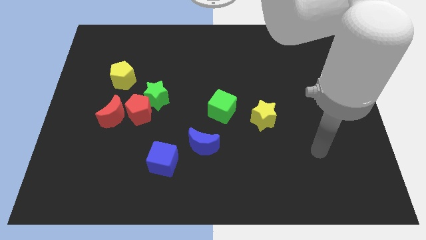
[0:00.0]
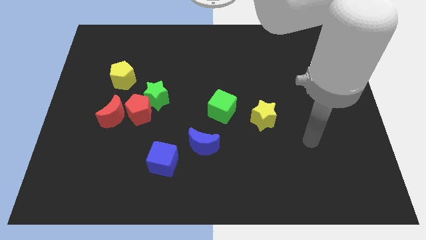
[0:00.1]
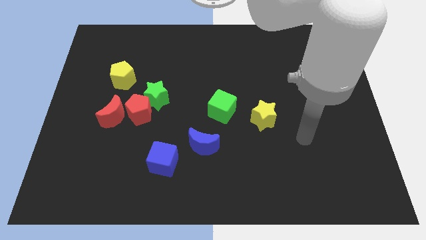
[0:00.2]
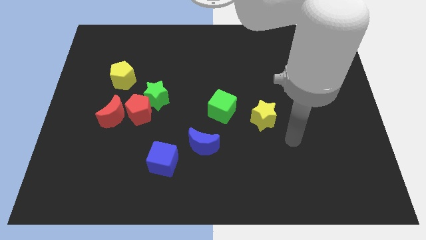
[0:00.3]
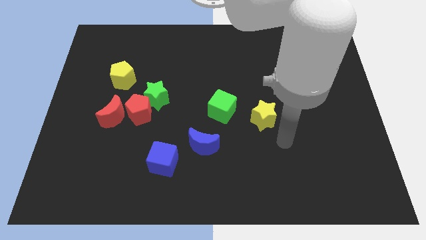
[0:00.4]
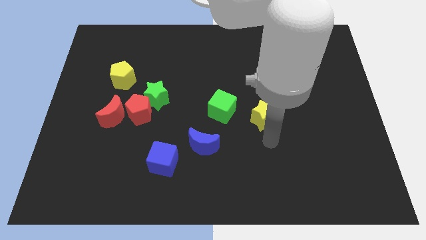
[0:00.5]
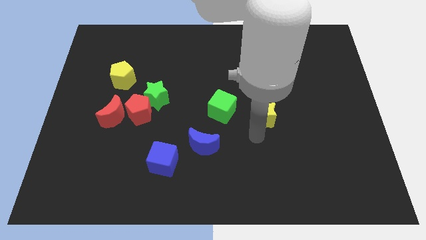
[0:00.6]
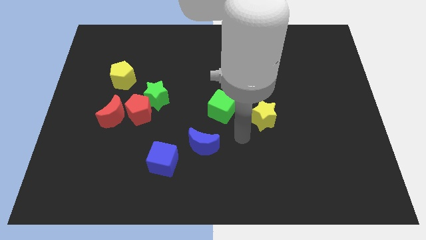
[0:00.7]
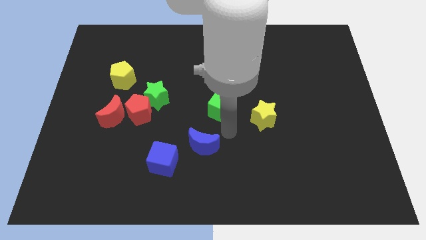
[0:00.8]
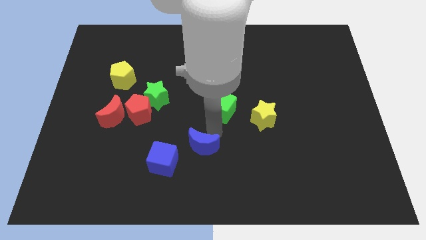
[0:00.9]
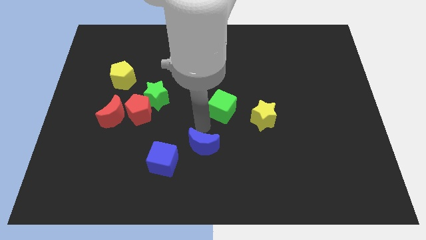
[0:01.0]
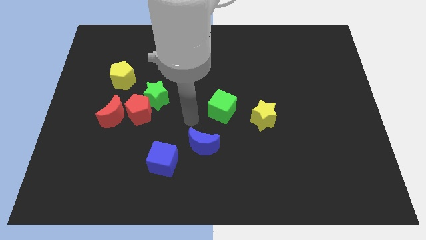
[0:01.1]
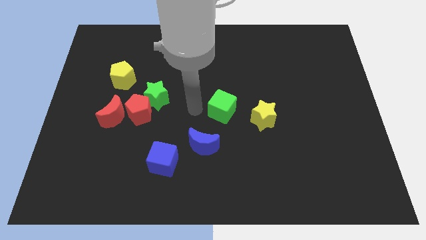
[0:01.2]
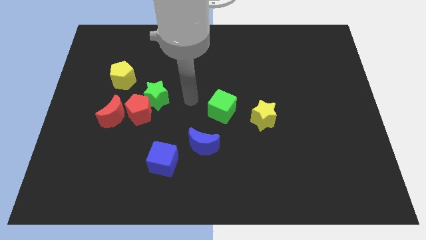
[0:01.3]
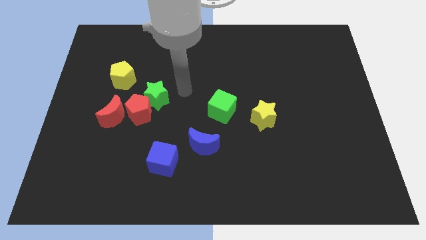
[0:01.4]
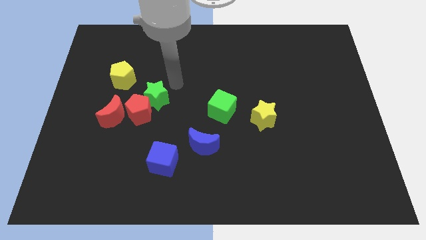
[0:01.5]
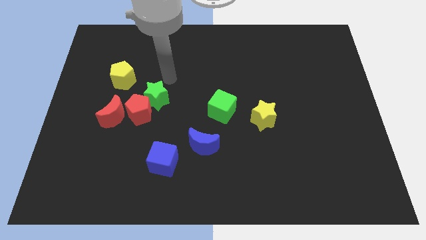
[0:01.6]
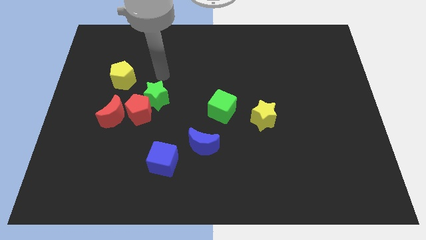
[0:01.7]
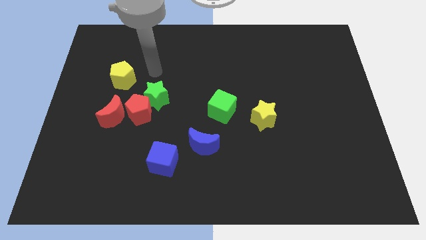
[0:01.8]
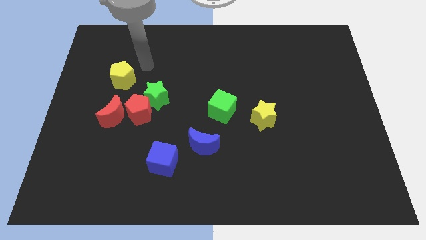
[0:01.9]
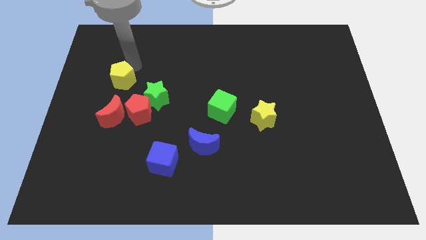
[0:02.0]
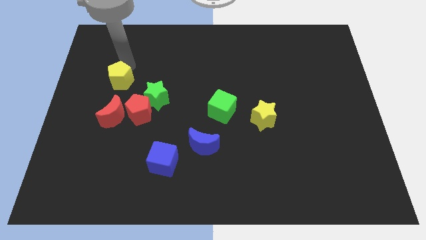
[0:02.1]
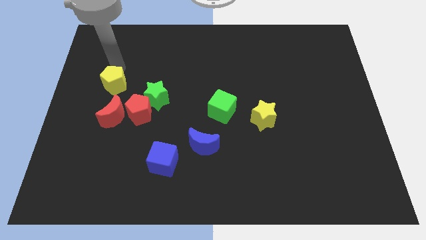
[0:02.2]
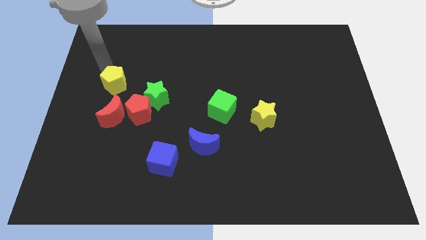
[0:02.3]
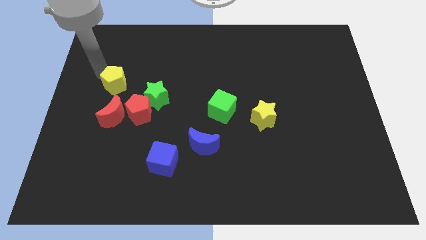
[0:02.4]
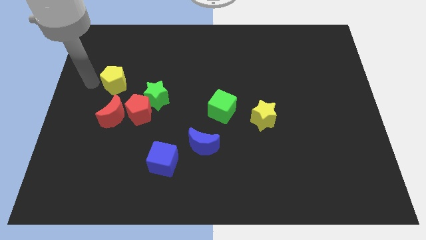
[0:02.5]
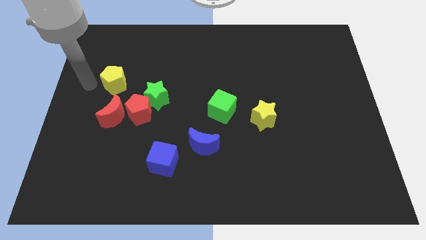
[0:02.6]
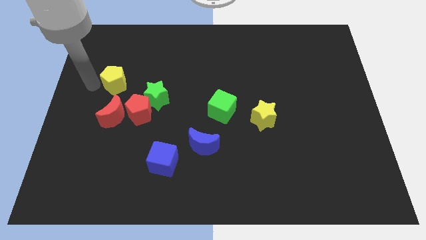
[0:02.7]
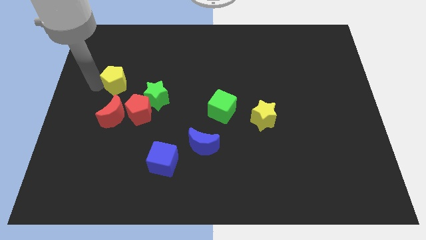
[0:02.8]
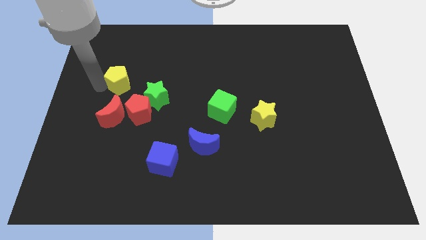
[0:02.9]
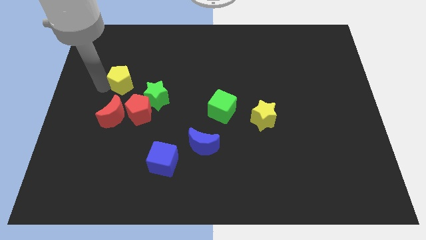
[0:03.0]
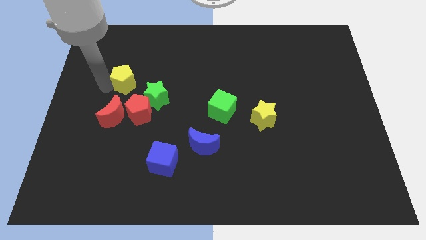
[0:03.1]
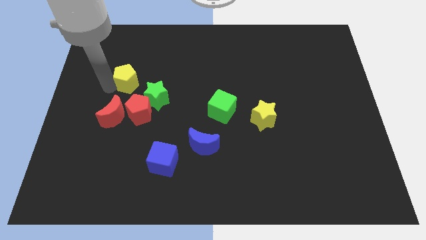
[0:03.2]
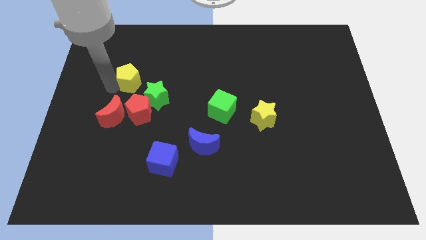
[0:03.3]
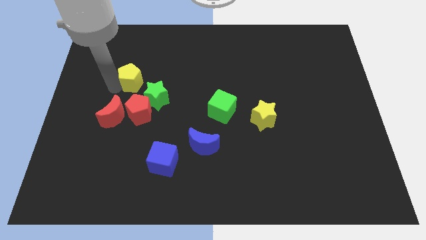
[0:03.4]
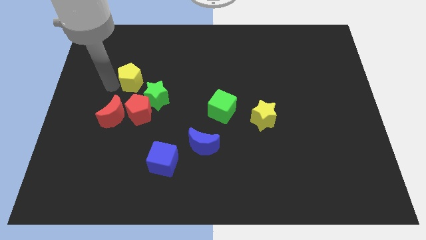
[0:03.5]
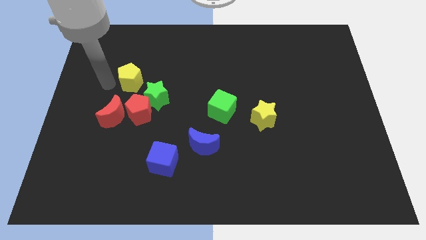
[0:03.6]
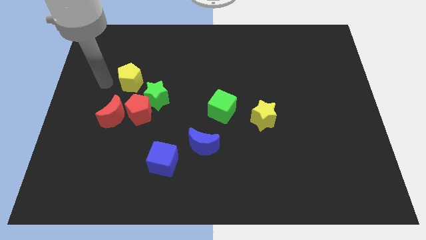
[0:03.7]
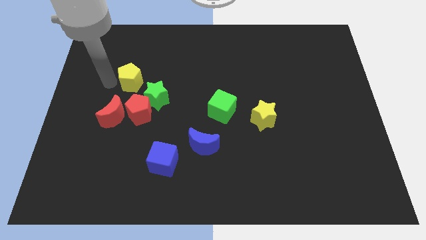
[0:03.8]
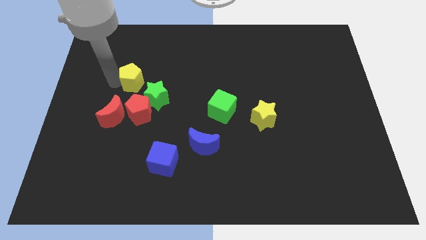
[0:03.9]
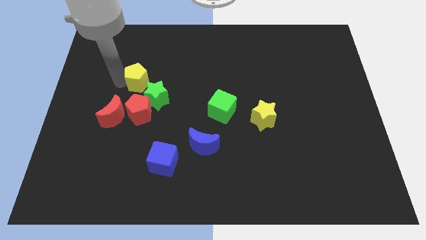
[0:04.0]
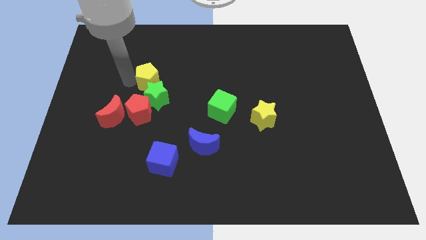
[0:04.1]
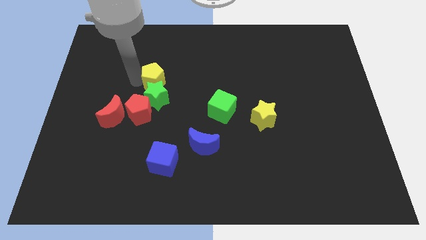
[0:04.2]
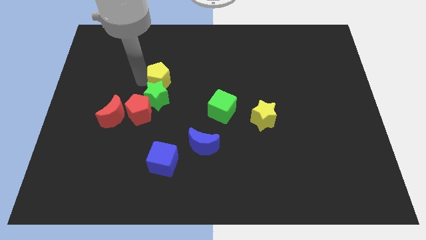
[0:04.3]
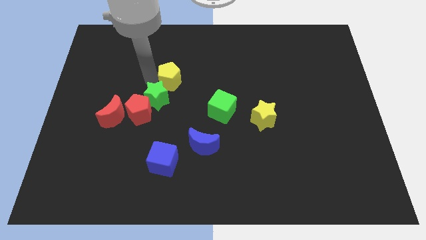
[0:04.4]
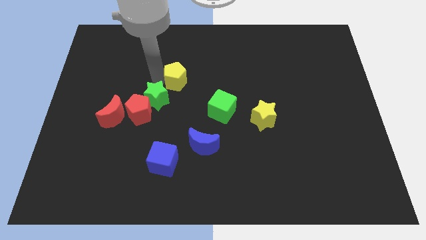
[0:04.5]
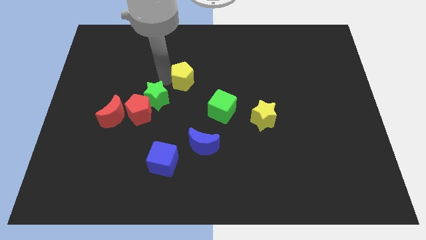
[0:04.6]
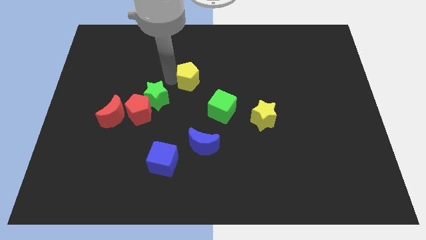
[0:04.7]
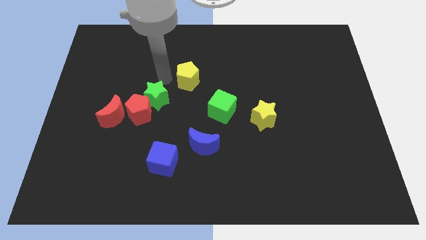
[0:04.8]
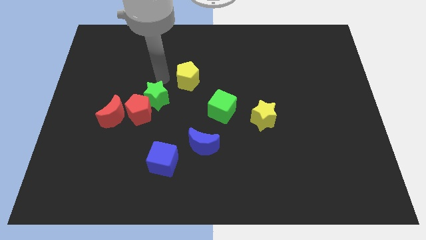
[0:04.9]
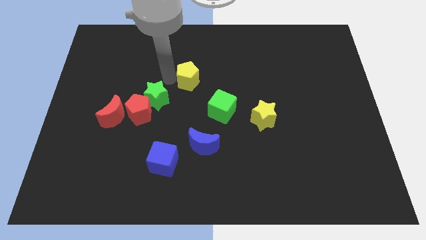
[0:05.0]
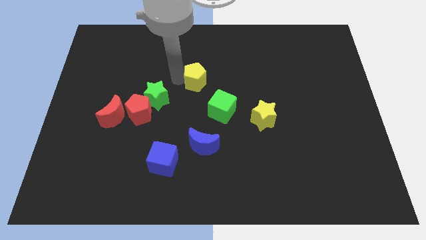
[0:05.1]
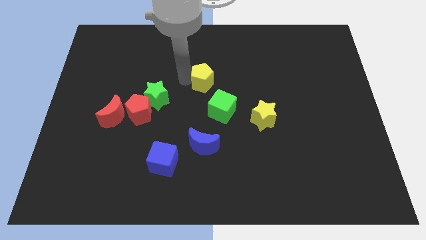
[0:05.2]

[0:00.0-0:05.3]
push the yellow pentagon right

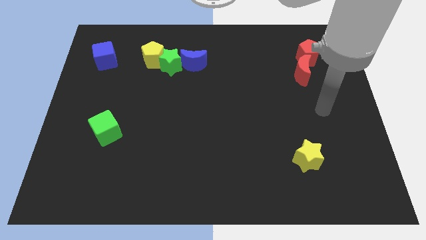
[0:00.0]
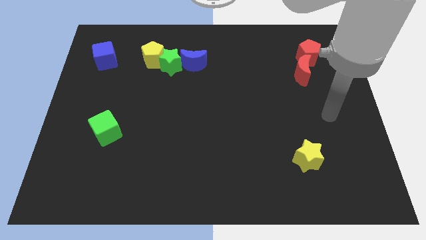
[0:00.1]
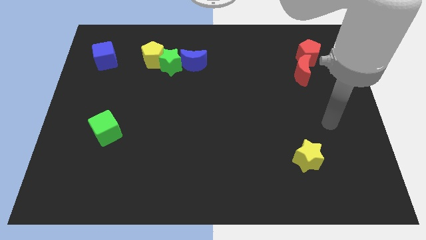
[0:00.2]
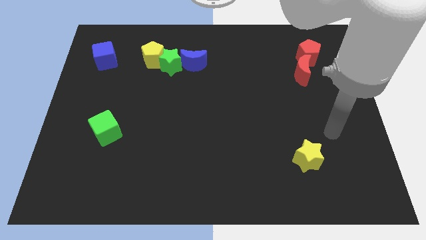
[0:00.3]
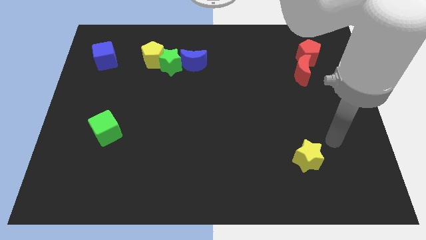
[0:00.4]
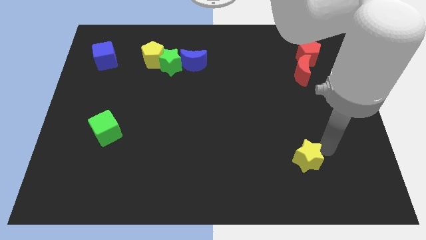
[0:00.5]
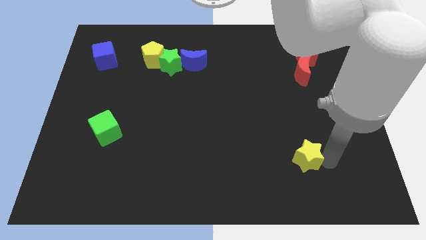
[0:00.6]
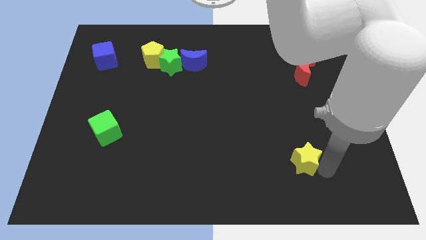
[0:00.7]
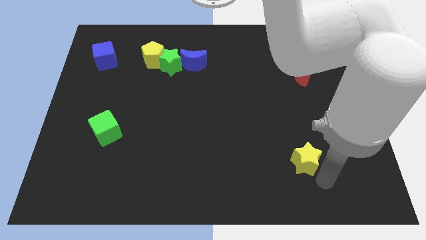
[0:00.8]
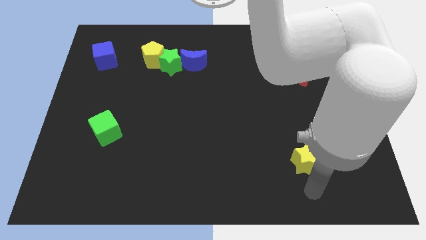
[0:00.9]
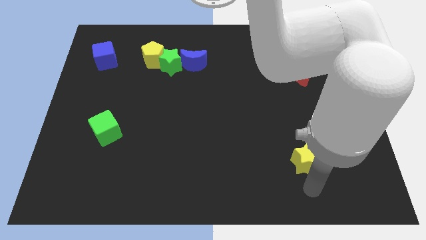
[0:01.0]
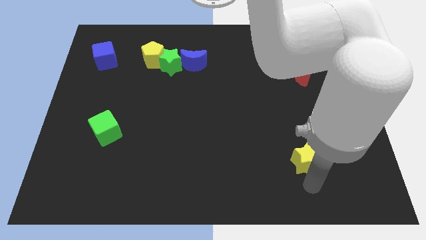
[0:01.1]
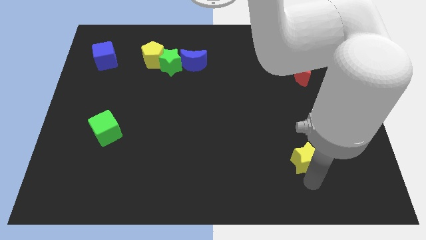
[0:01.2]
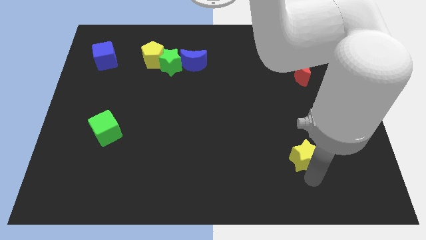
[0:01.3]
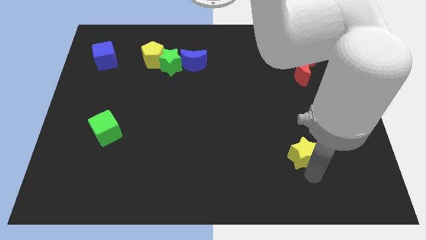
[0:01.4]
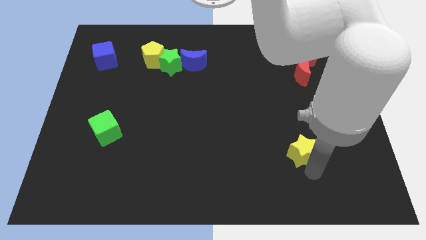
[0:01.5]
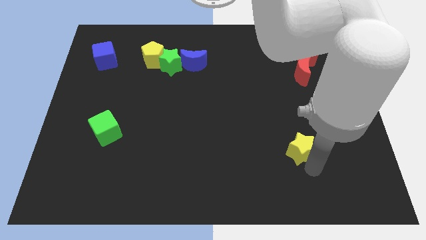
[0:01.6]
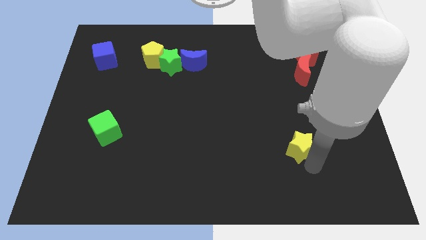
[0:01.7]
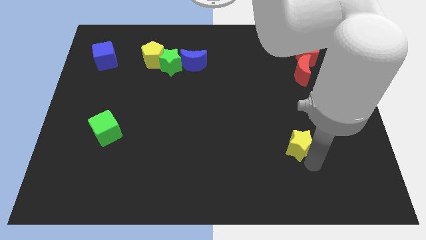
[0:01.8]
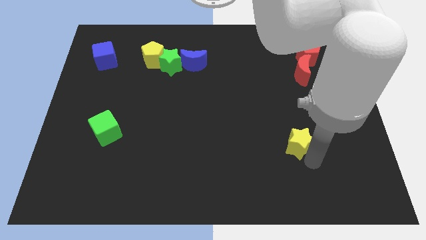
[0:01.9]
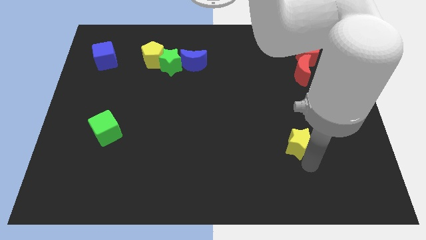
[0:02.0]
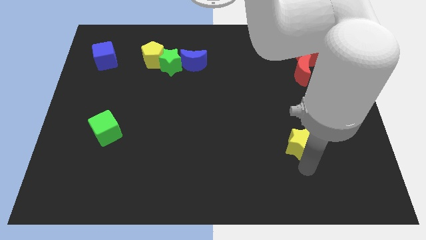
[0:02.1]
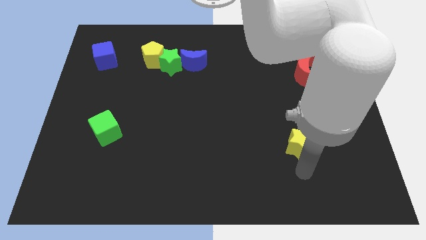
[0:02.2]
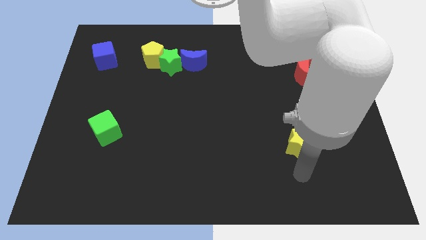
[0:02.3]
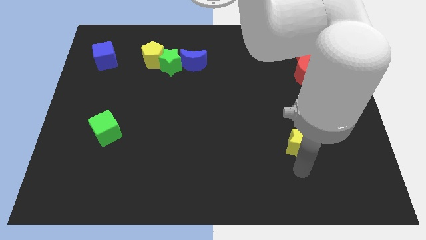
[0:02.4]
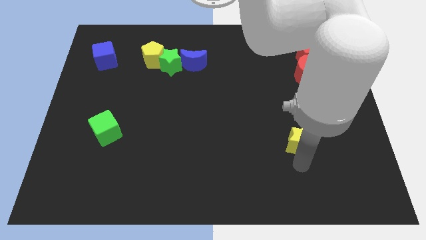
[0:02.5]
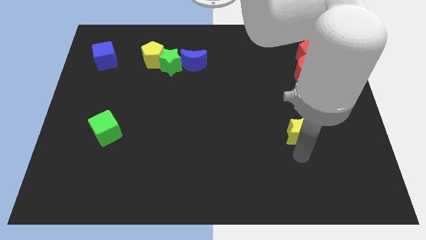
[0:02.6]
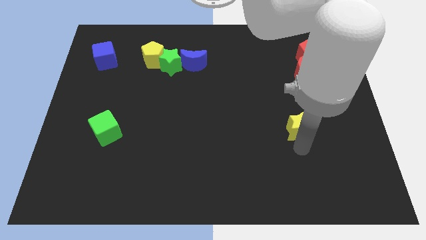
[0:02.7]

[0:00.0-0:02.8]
push the yellow star a little bit up

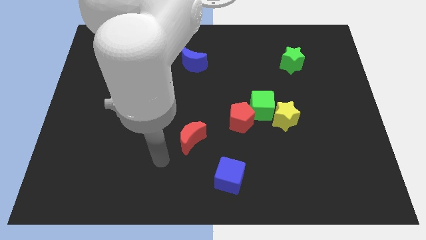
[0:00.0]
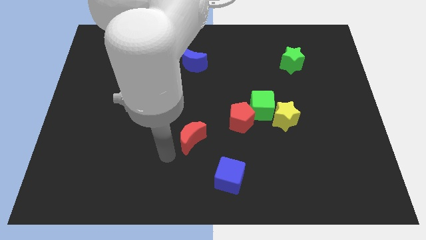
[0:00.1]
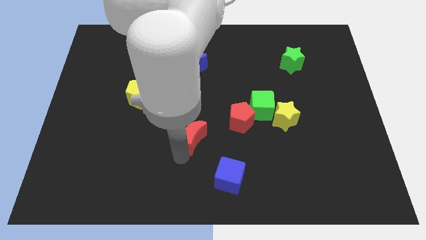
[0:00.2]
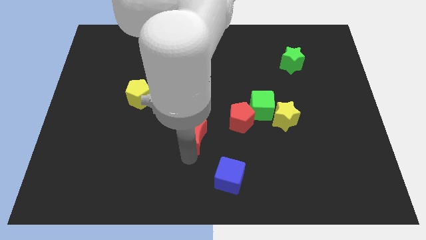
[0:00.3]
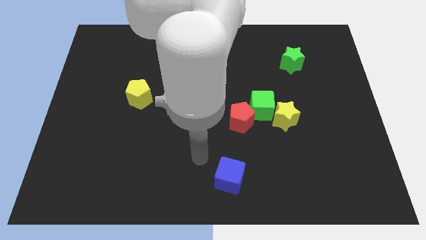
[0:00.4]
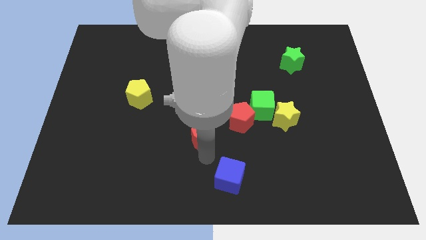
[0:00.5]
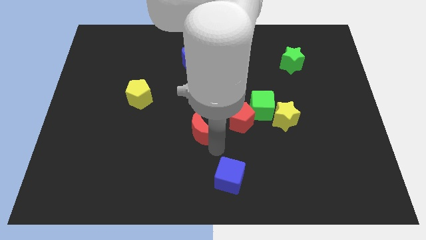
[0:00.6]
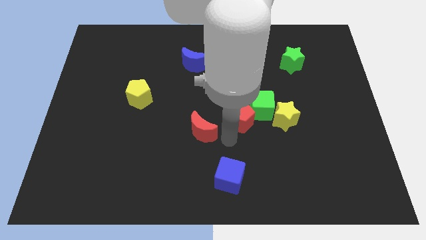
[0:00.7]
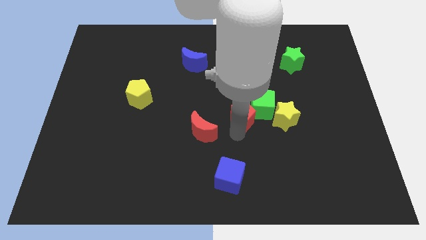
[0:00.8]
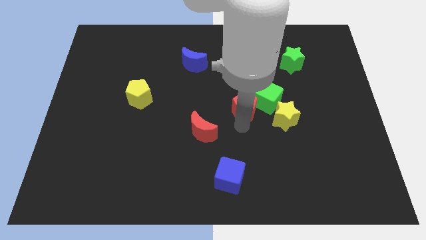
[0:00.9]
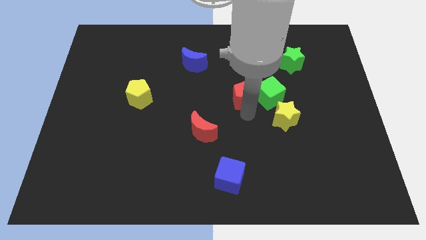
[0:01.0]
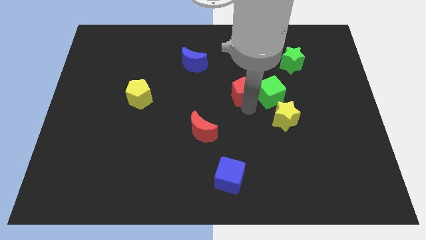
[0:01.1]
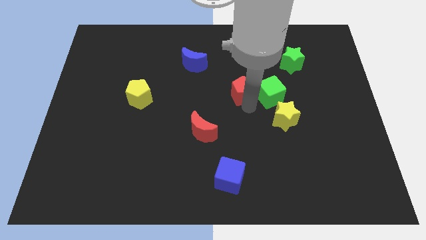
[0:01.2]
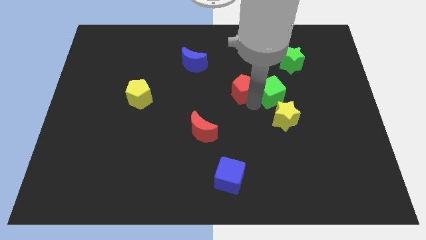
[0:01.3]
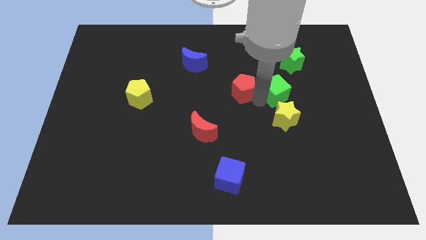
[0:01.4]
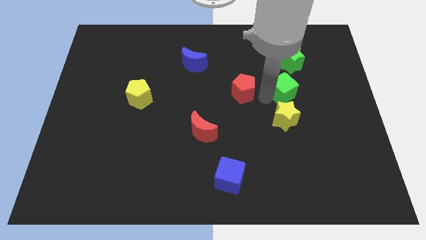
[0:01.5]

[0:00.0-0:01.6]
slide the green cube diagonally upwards and to the right slightly
